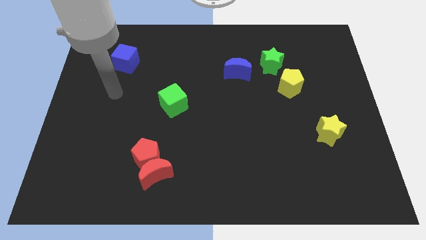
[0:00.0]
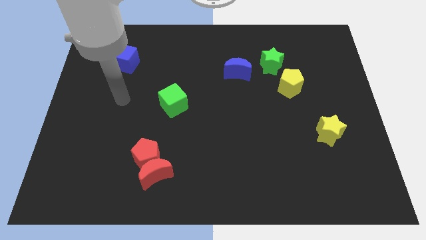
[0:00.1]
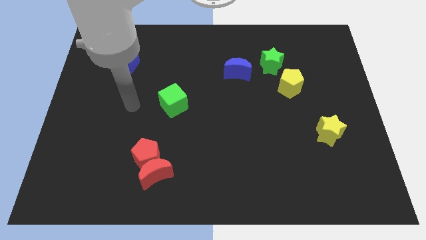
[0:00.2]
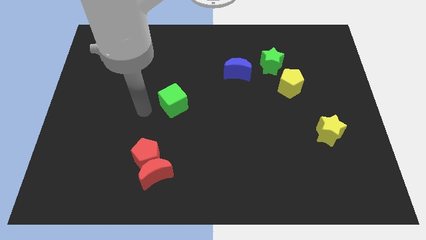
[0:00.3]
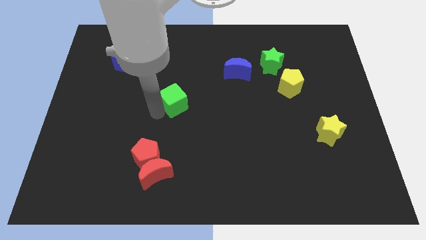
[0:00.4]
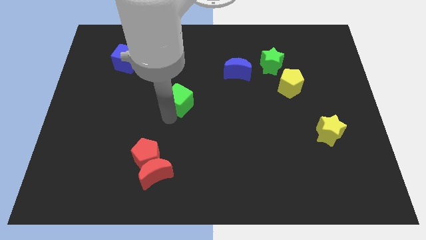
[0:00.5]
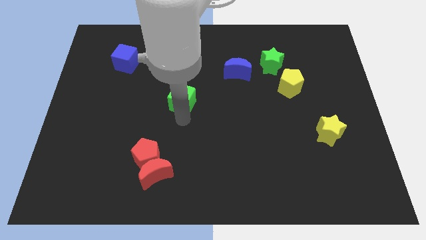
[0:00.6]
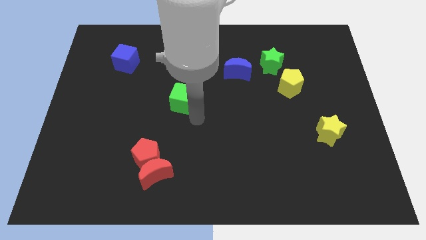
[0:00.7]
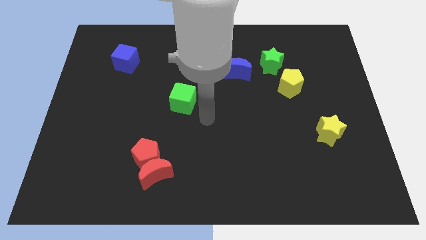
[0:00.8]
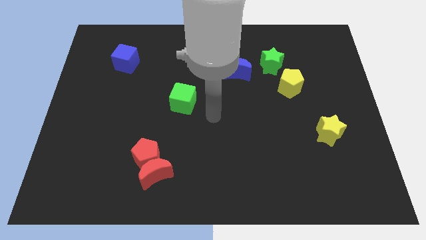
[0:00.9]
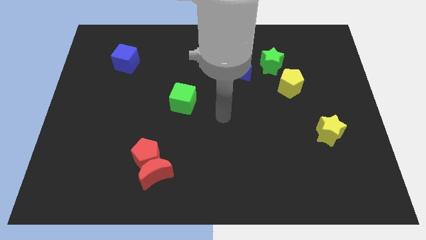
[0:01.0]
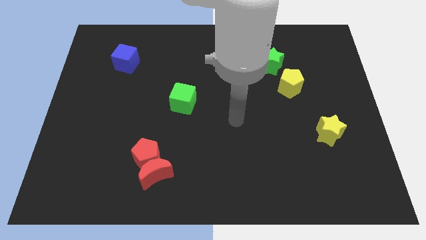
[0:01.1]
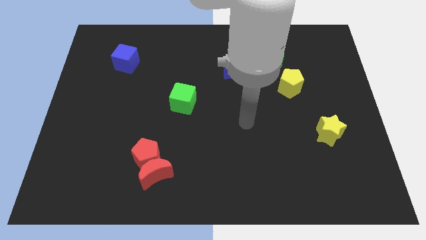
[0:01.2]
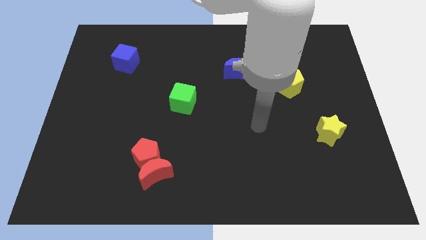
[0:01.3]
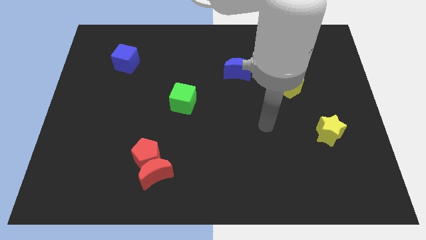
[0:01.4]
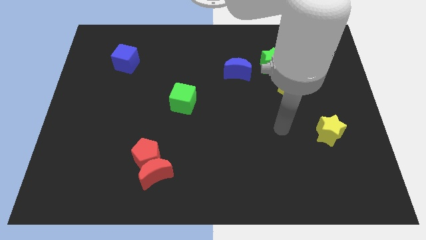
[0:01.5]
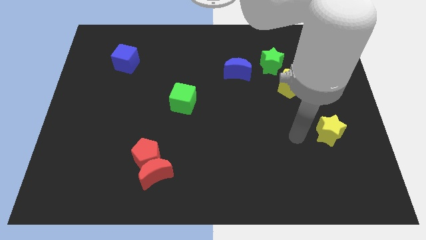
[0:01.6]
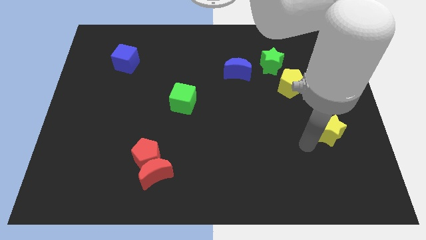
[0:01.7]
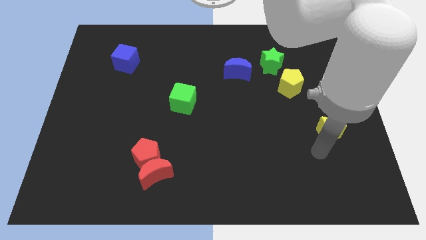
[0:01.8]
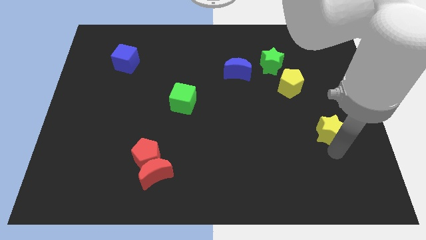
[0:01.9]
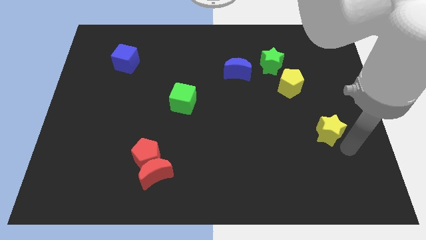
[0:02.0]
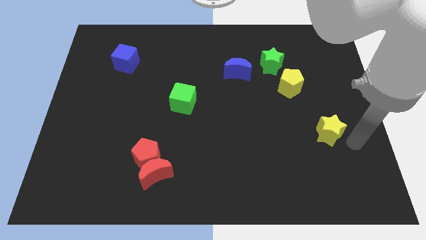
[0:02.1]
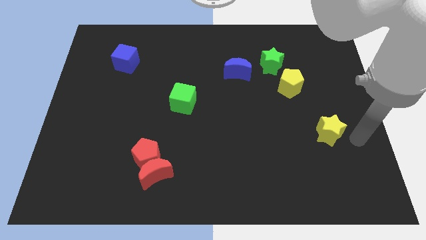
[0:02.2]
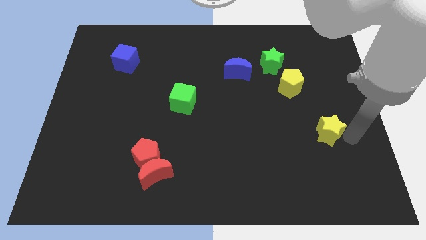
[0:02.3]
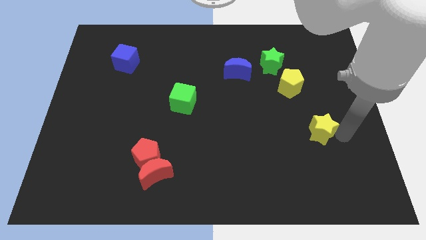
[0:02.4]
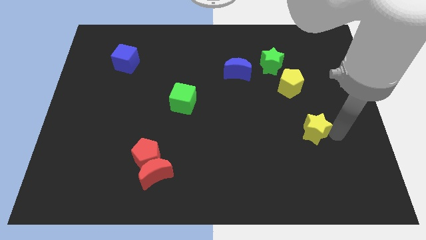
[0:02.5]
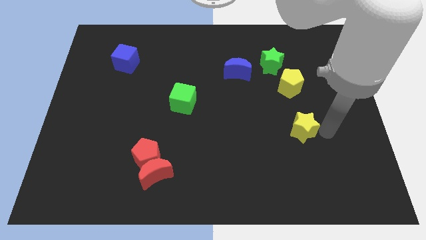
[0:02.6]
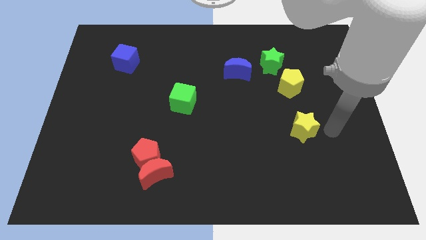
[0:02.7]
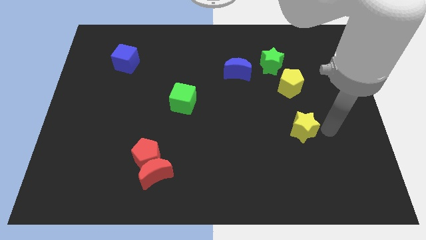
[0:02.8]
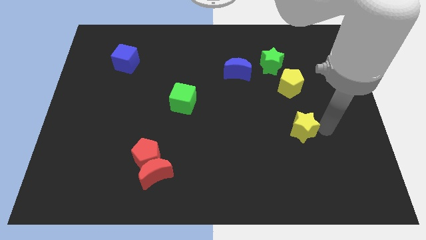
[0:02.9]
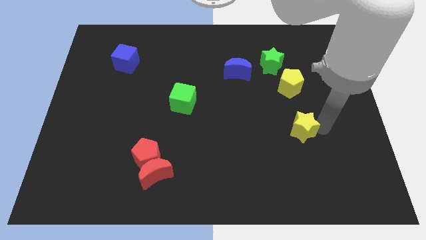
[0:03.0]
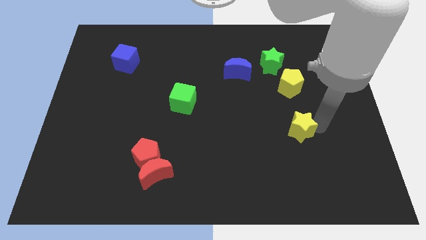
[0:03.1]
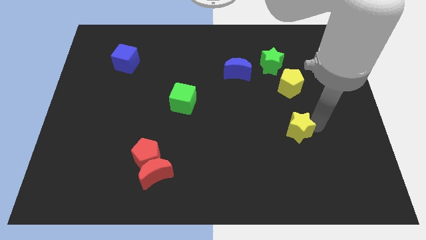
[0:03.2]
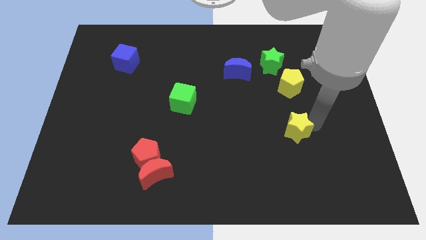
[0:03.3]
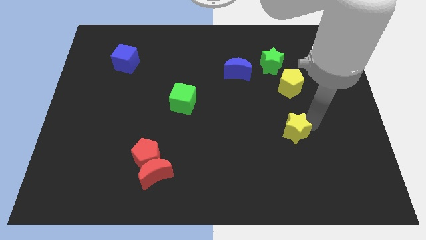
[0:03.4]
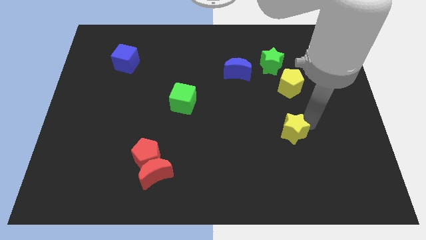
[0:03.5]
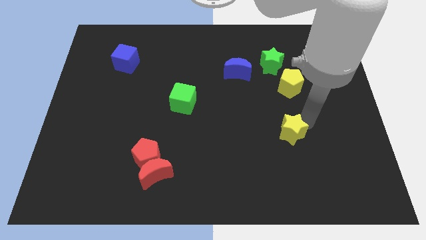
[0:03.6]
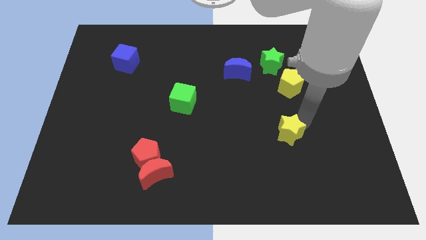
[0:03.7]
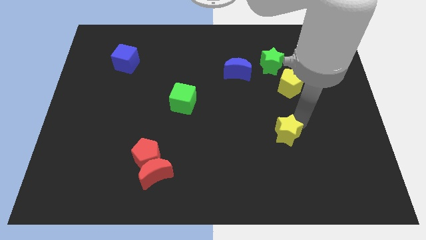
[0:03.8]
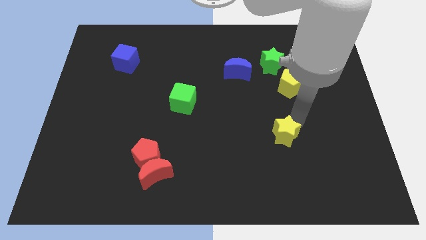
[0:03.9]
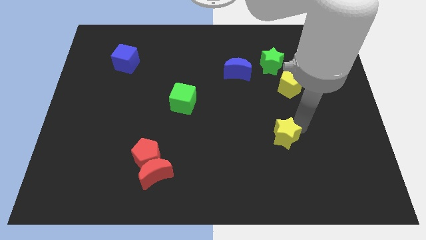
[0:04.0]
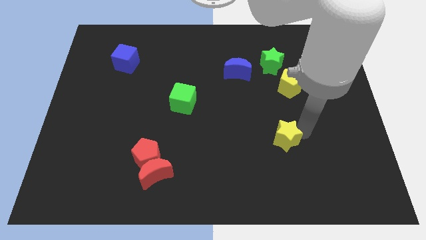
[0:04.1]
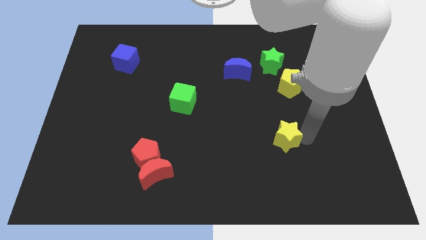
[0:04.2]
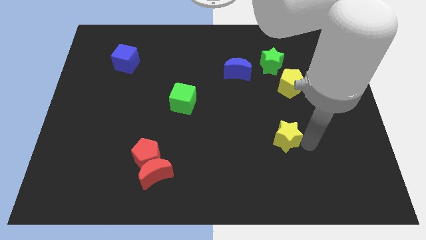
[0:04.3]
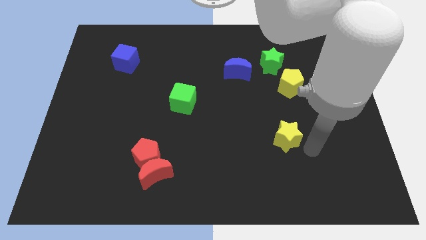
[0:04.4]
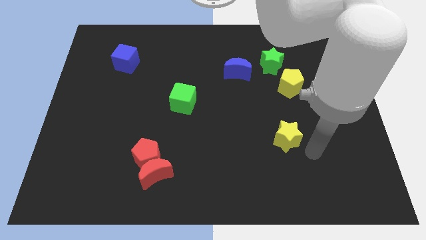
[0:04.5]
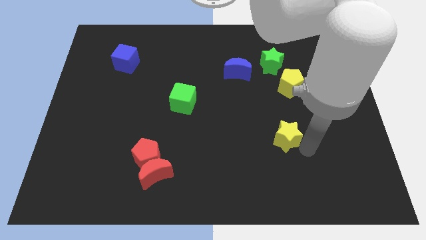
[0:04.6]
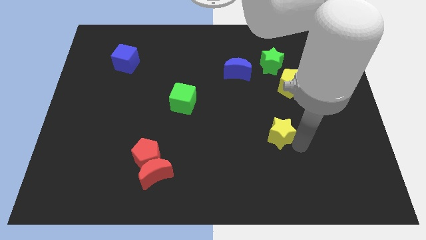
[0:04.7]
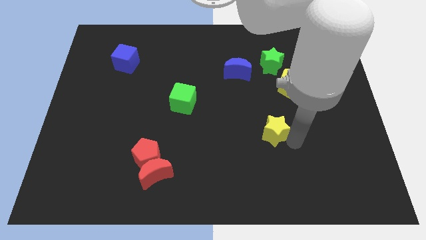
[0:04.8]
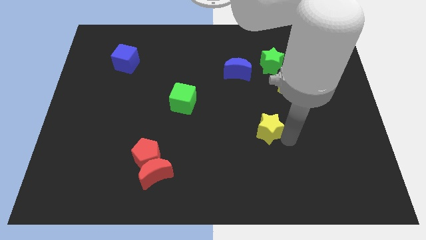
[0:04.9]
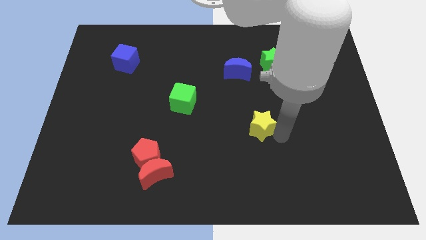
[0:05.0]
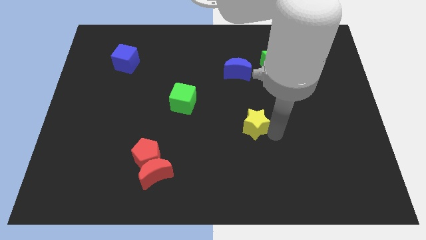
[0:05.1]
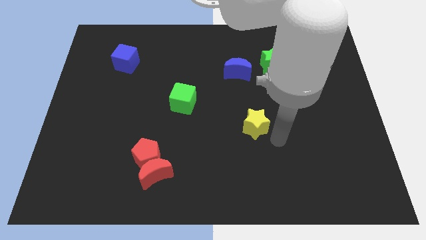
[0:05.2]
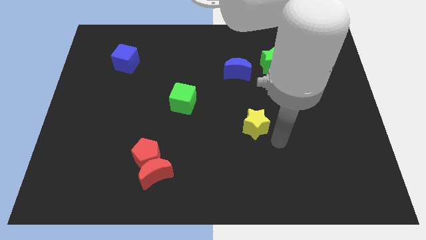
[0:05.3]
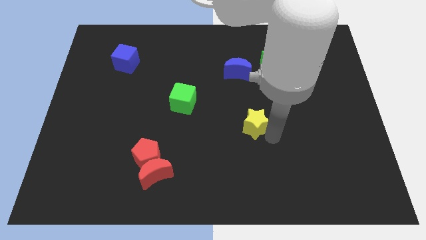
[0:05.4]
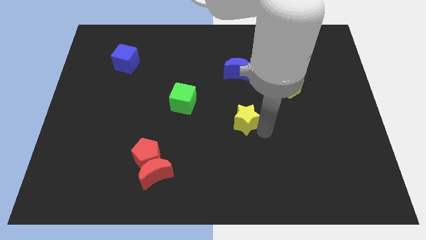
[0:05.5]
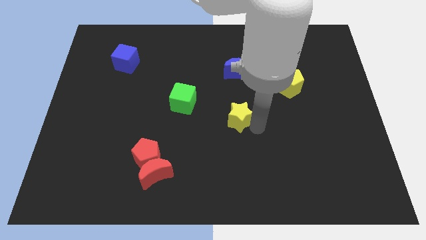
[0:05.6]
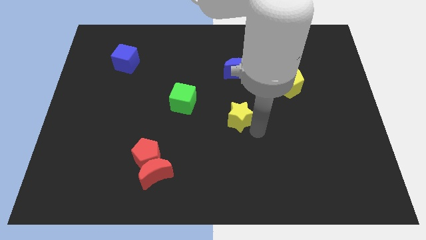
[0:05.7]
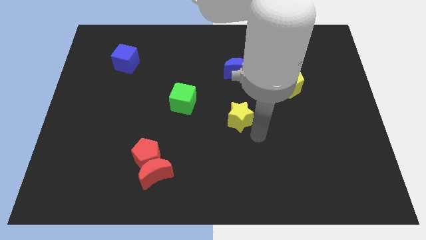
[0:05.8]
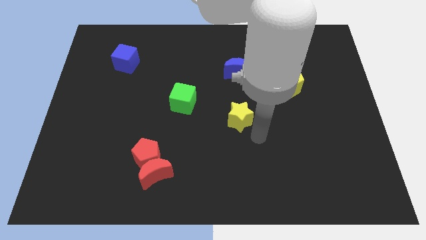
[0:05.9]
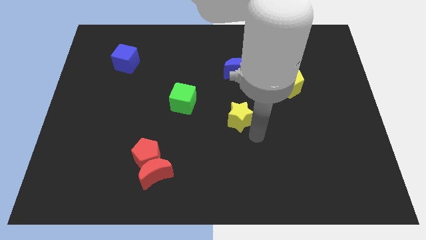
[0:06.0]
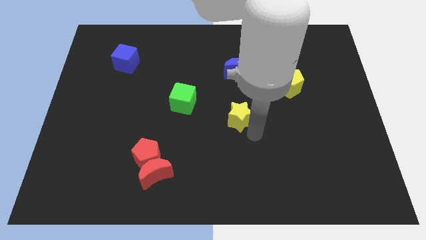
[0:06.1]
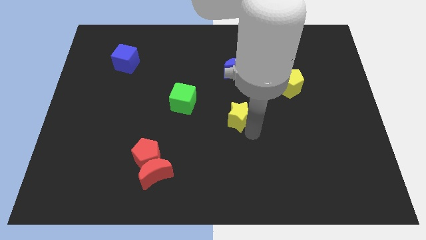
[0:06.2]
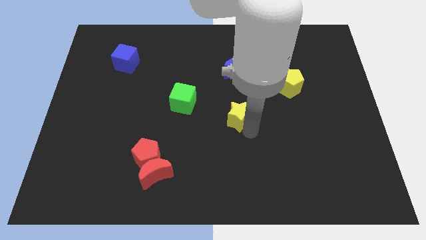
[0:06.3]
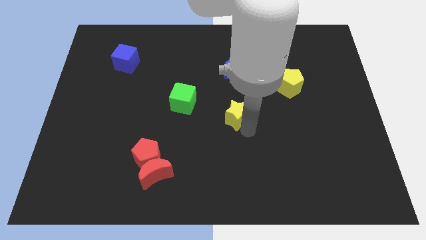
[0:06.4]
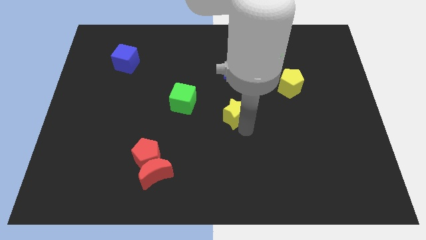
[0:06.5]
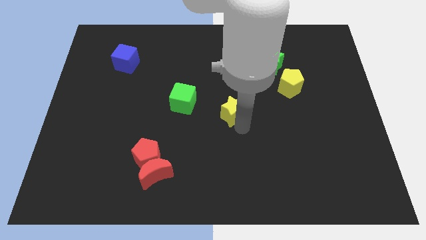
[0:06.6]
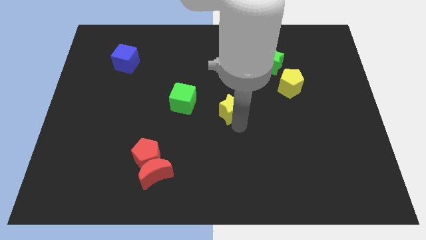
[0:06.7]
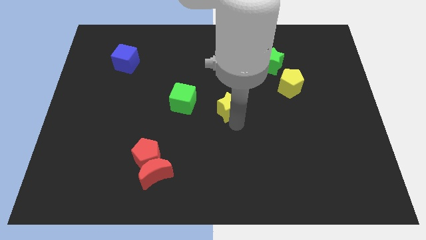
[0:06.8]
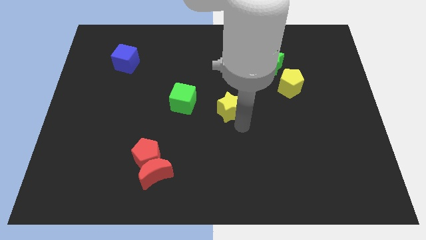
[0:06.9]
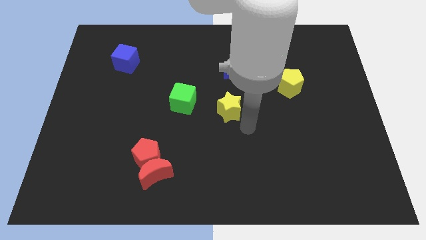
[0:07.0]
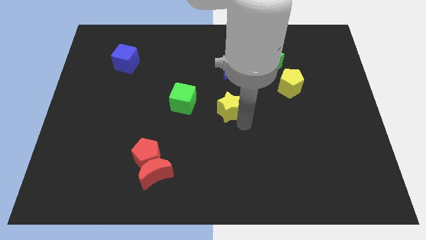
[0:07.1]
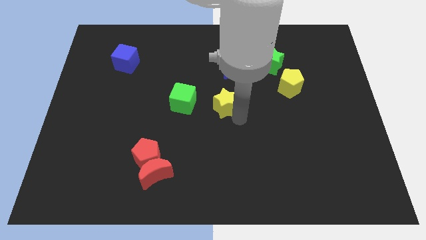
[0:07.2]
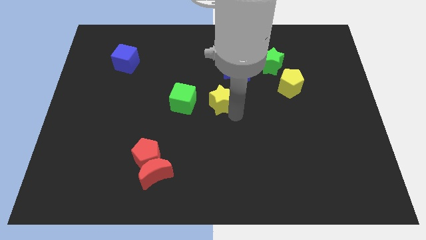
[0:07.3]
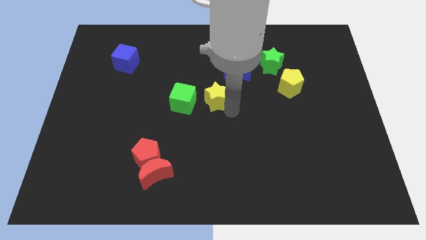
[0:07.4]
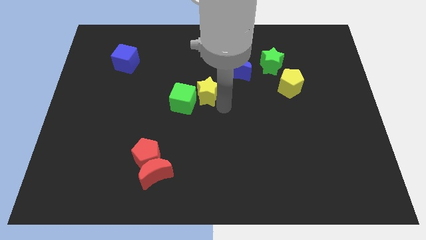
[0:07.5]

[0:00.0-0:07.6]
push the yellow star diagonally upwards and to the left
